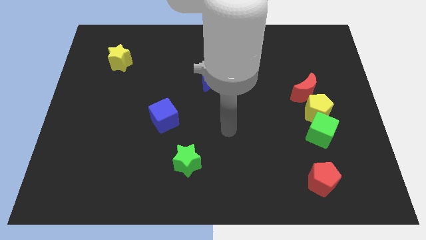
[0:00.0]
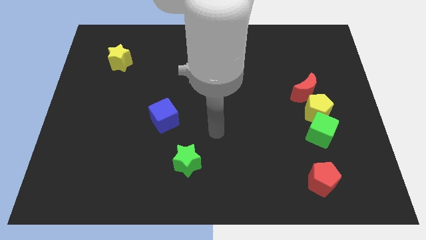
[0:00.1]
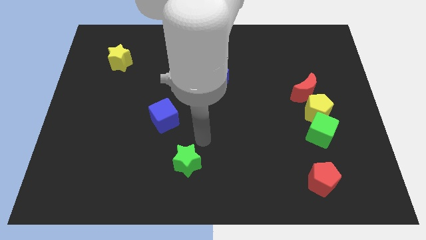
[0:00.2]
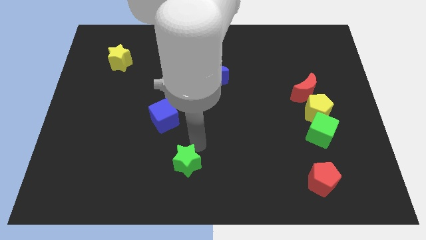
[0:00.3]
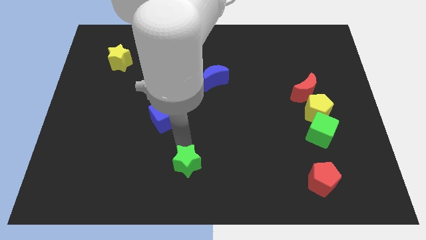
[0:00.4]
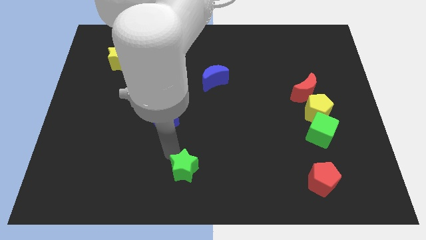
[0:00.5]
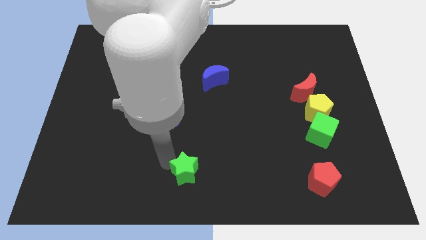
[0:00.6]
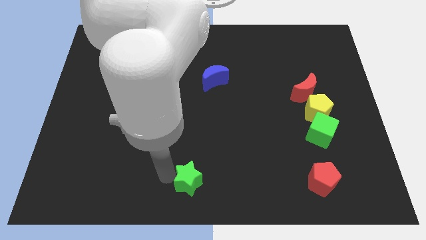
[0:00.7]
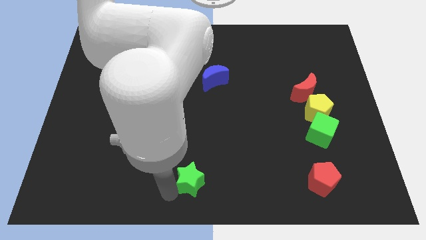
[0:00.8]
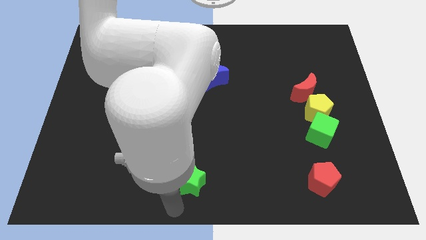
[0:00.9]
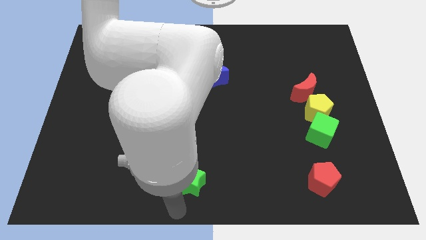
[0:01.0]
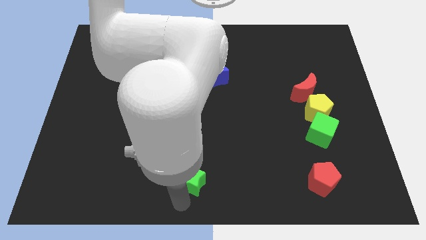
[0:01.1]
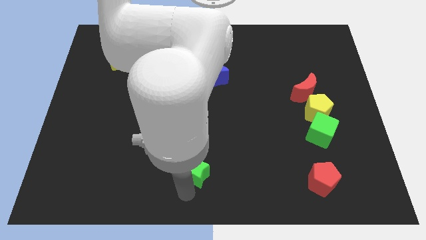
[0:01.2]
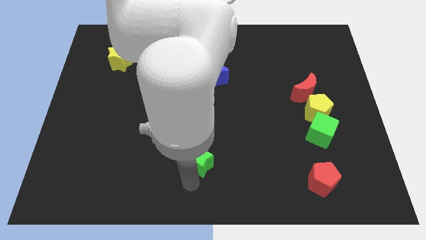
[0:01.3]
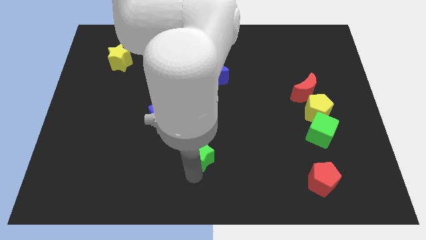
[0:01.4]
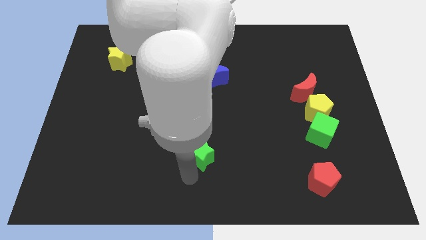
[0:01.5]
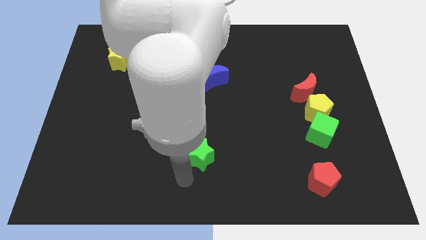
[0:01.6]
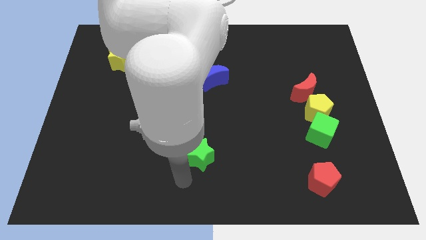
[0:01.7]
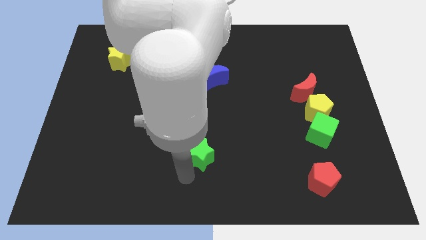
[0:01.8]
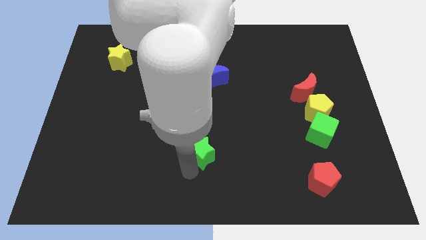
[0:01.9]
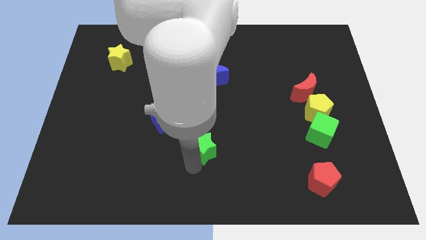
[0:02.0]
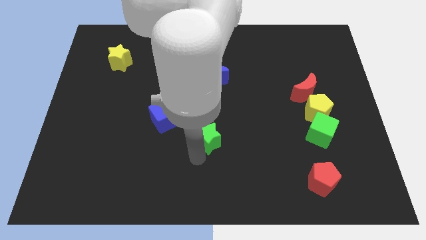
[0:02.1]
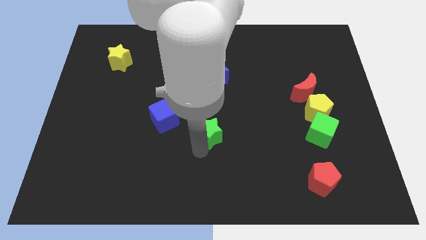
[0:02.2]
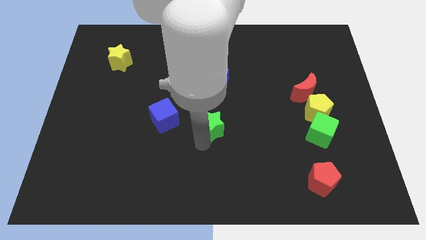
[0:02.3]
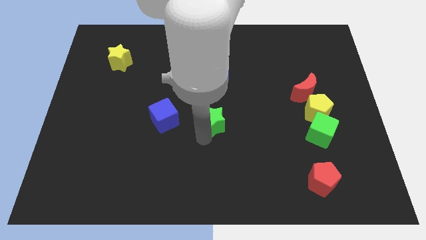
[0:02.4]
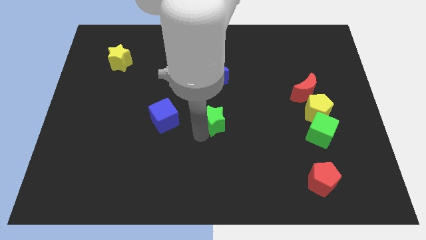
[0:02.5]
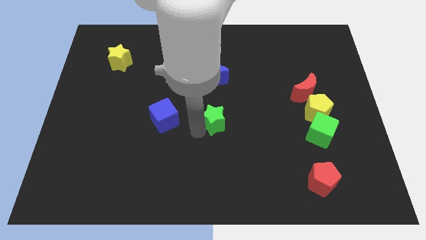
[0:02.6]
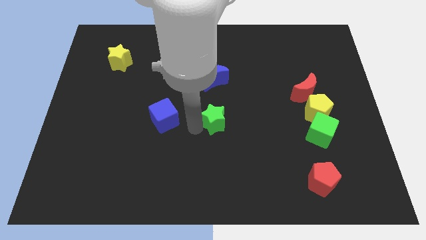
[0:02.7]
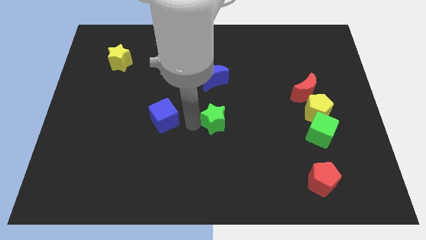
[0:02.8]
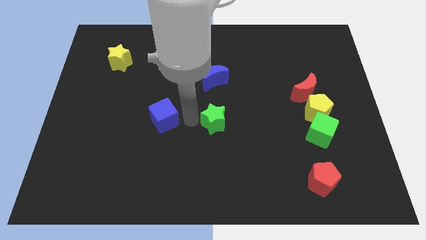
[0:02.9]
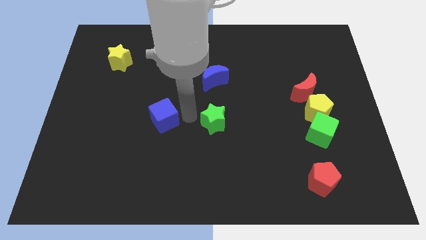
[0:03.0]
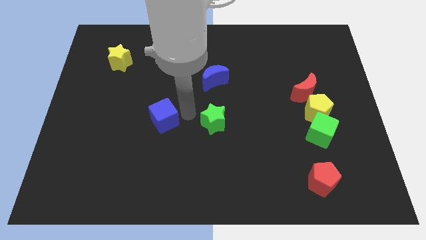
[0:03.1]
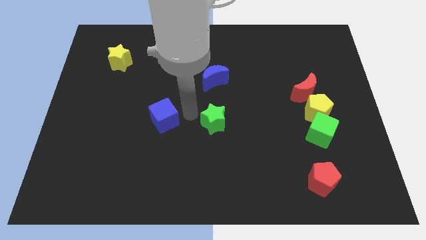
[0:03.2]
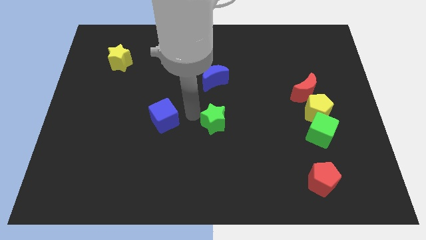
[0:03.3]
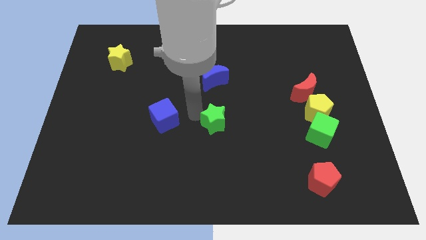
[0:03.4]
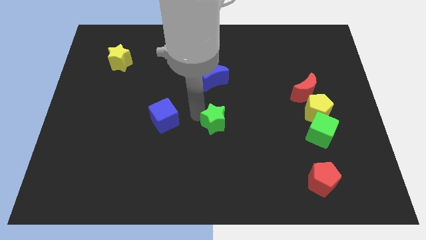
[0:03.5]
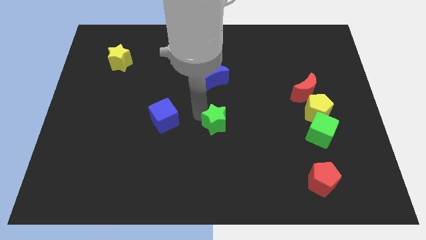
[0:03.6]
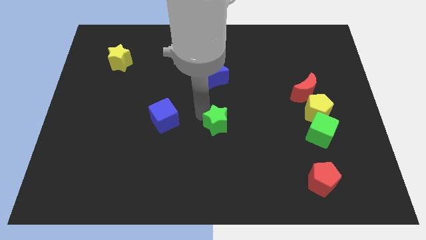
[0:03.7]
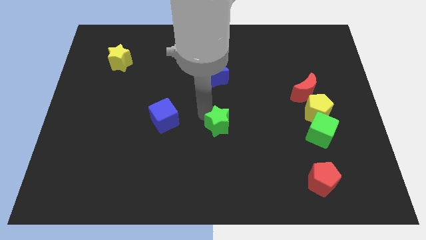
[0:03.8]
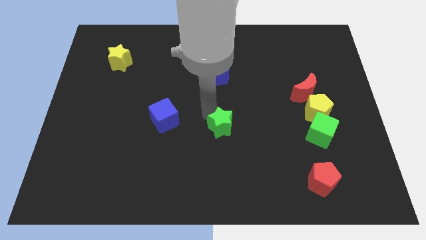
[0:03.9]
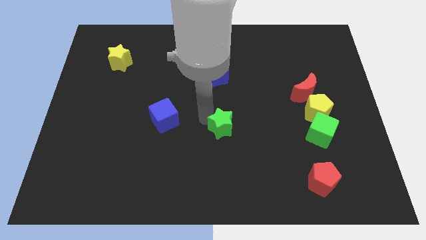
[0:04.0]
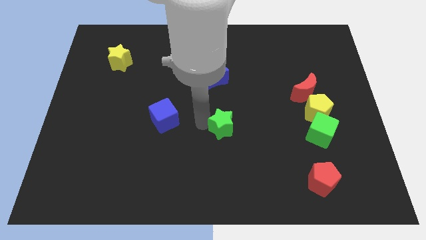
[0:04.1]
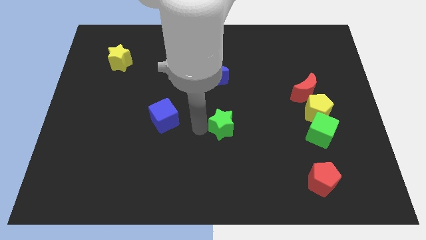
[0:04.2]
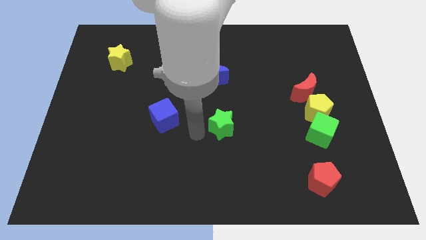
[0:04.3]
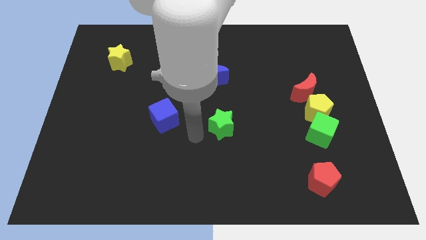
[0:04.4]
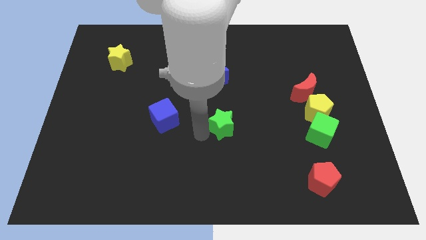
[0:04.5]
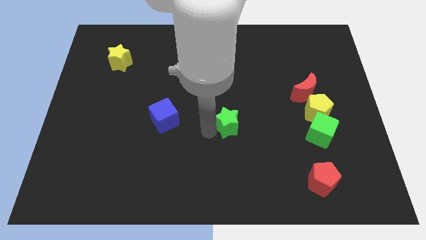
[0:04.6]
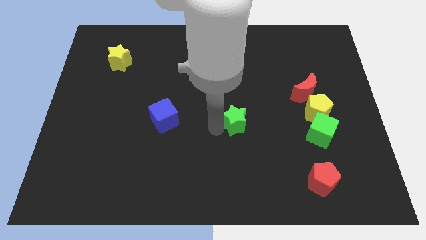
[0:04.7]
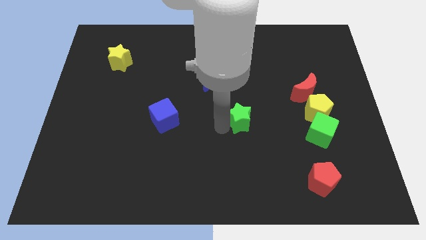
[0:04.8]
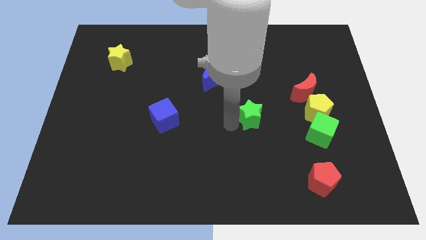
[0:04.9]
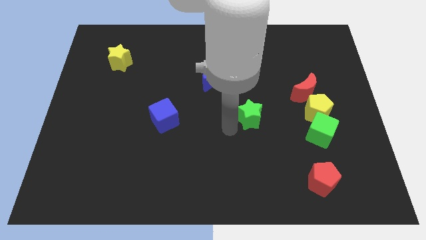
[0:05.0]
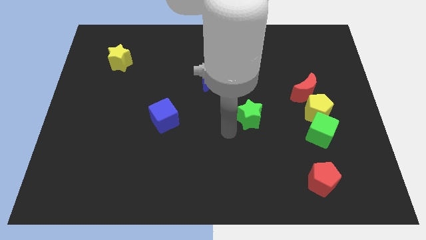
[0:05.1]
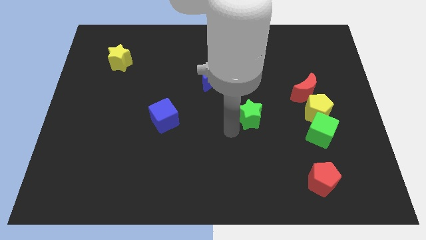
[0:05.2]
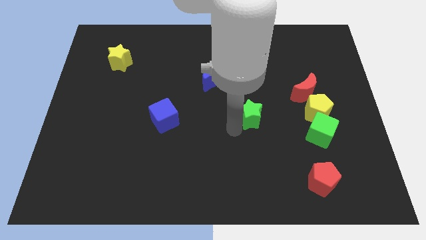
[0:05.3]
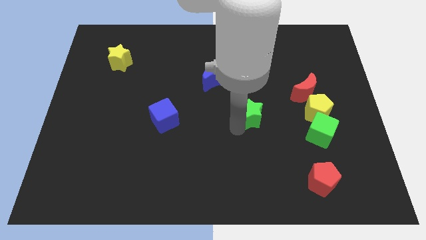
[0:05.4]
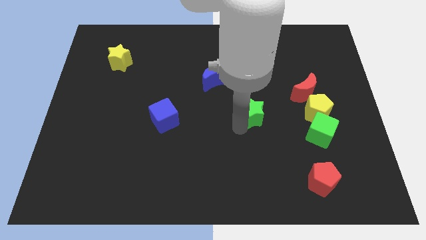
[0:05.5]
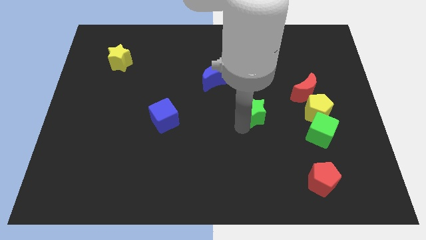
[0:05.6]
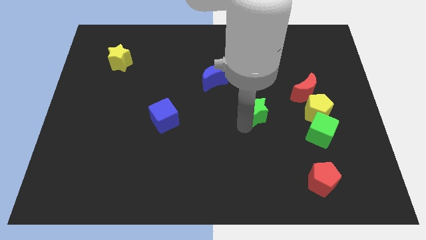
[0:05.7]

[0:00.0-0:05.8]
push the green star up and to the right

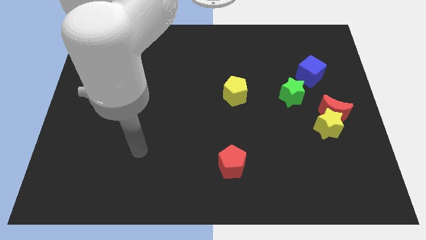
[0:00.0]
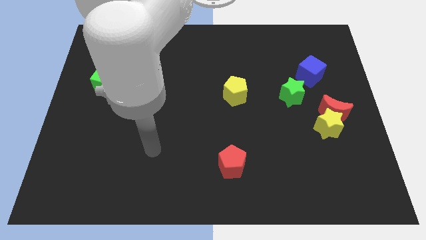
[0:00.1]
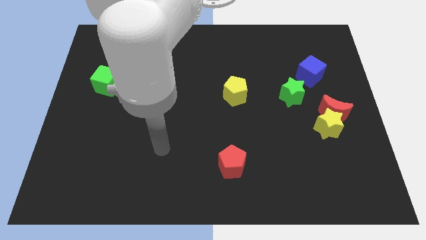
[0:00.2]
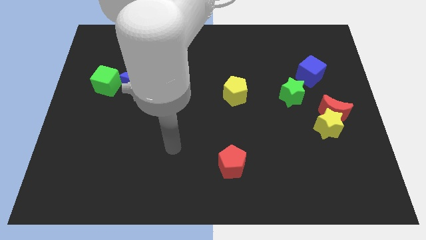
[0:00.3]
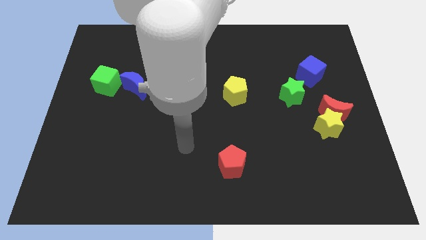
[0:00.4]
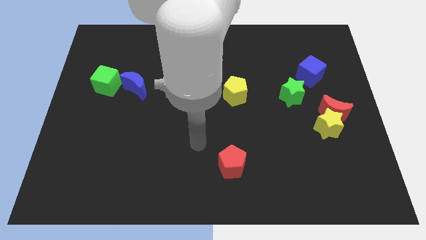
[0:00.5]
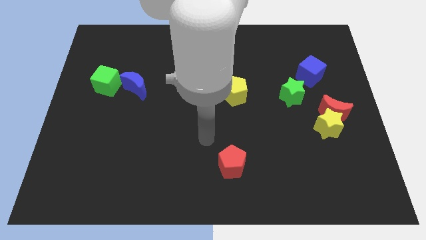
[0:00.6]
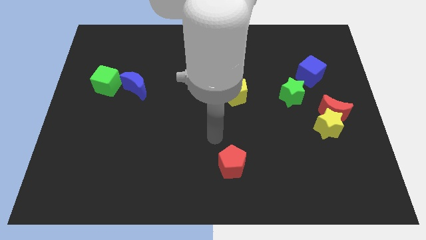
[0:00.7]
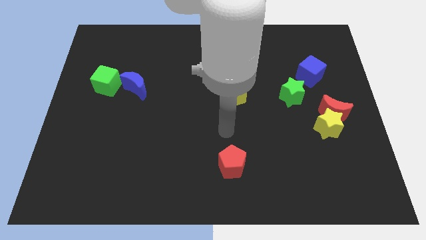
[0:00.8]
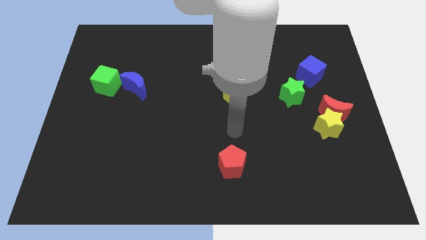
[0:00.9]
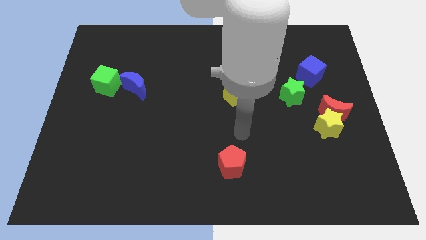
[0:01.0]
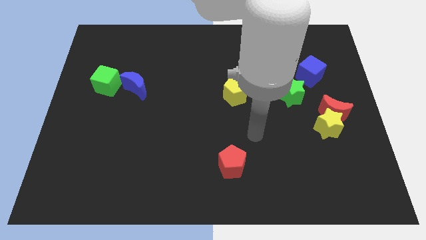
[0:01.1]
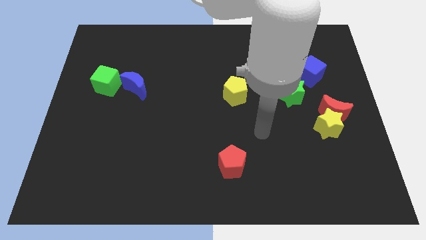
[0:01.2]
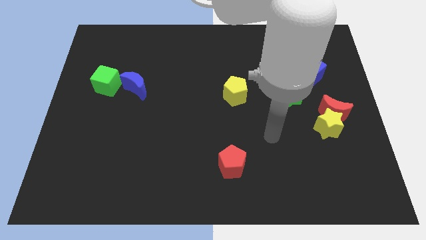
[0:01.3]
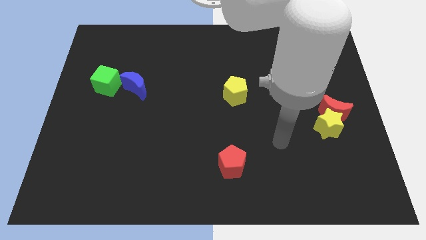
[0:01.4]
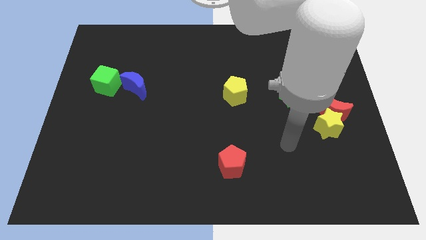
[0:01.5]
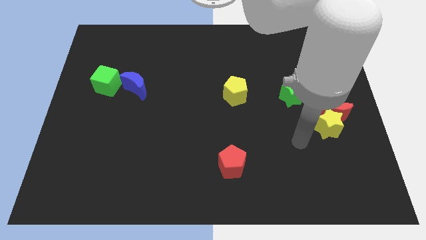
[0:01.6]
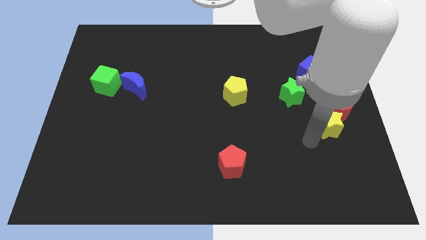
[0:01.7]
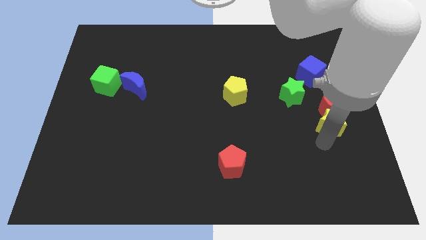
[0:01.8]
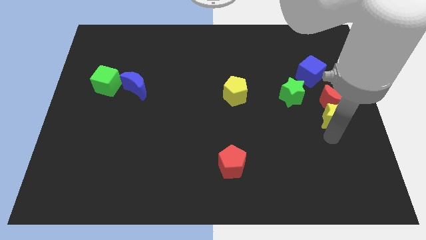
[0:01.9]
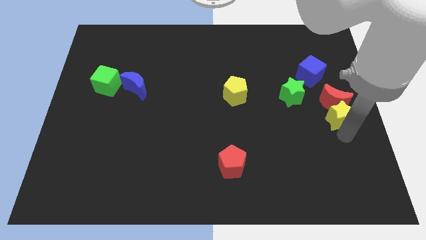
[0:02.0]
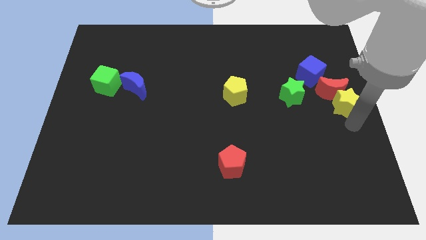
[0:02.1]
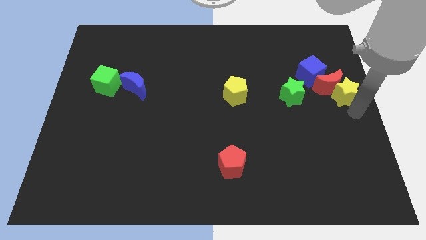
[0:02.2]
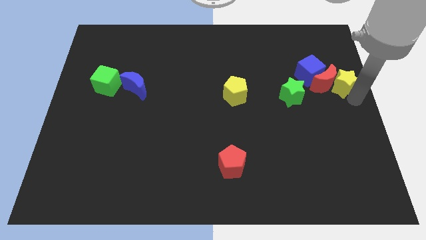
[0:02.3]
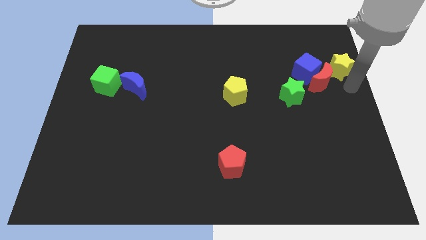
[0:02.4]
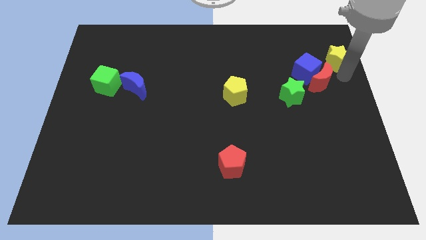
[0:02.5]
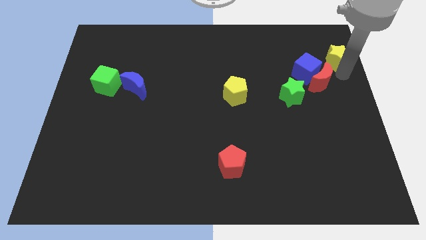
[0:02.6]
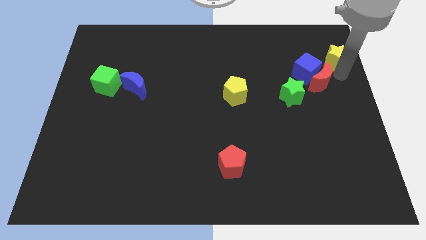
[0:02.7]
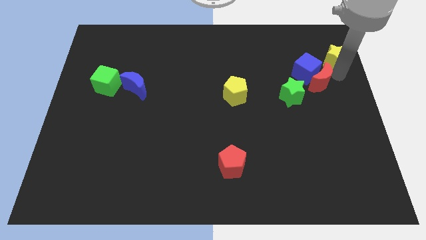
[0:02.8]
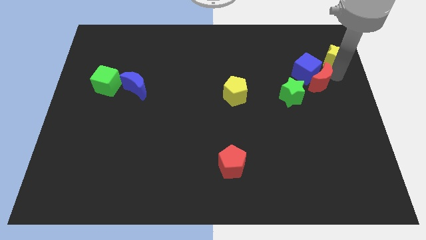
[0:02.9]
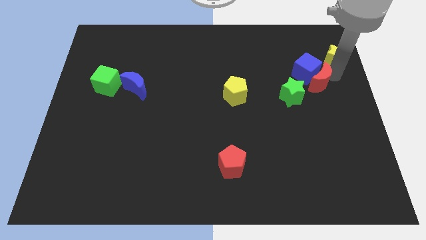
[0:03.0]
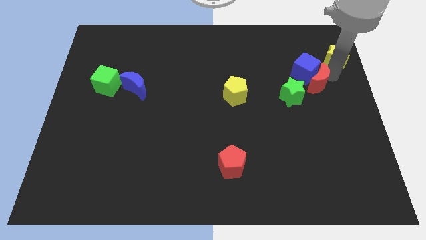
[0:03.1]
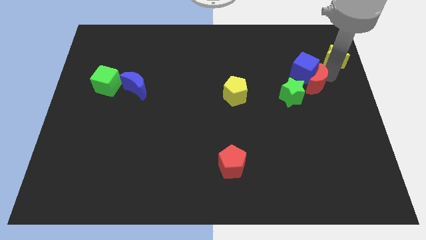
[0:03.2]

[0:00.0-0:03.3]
move the red moon up and then left somewhat
